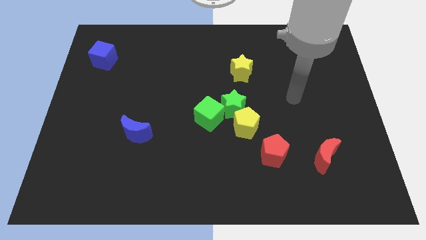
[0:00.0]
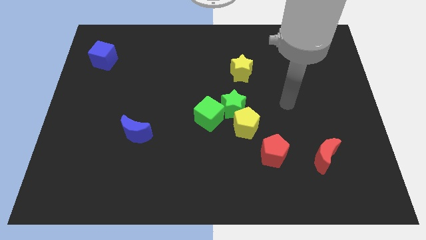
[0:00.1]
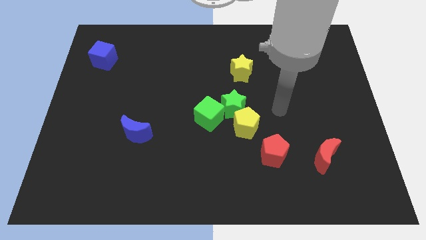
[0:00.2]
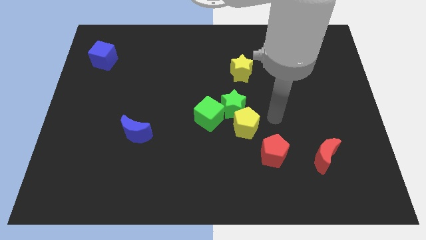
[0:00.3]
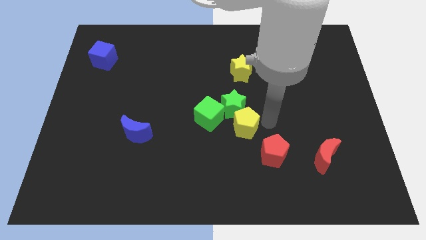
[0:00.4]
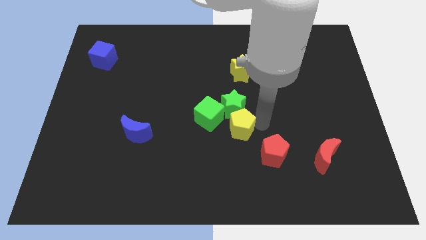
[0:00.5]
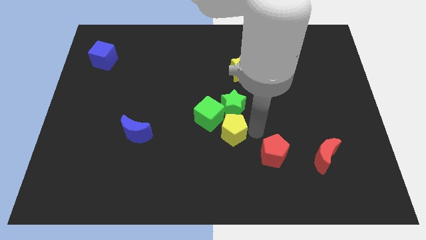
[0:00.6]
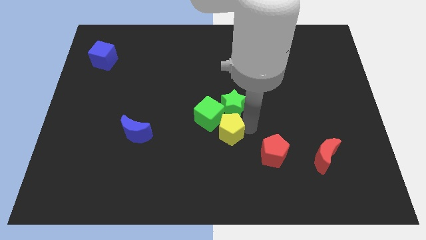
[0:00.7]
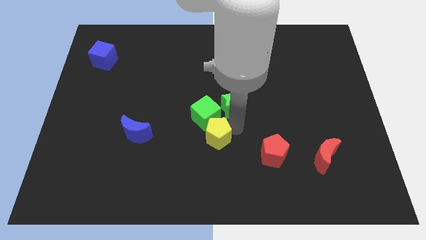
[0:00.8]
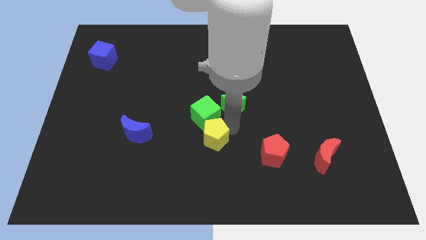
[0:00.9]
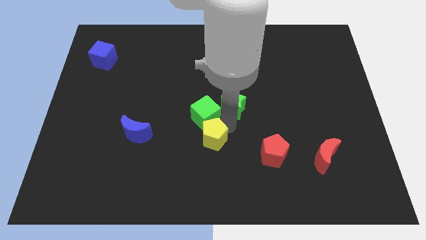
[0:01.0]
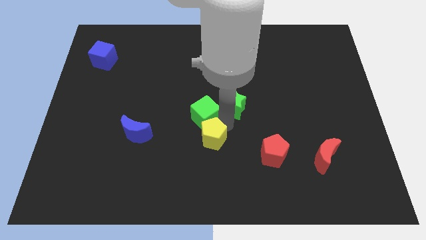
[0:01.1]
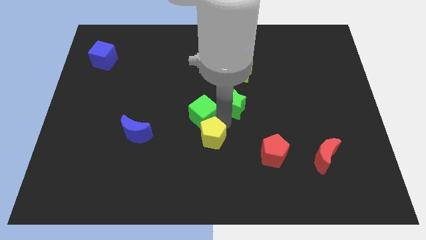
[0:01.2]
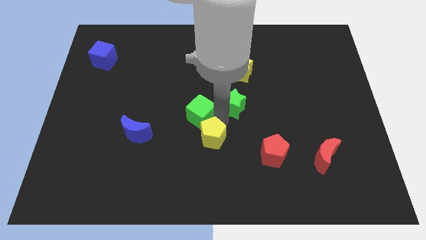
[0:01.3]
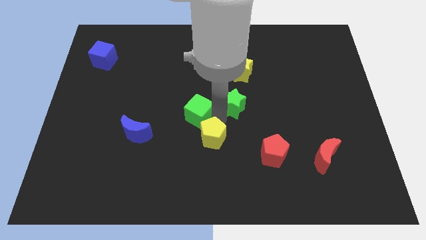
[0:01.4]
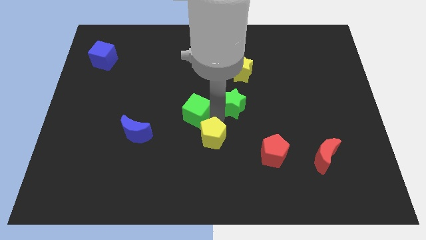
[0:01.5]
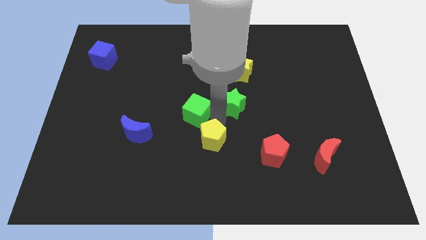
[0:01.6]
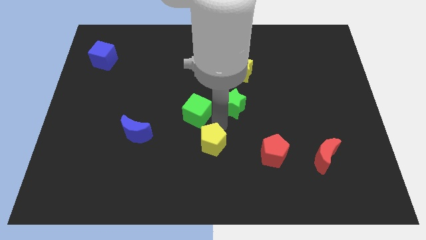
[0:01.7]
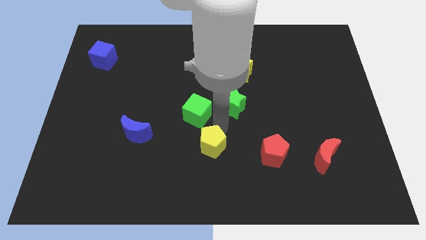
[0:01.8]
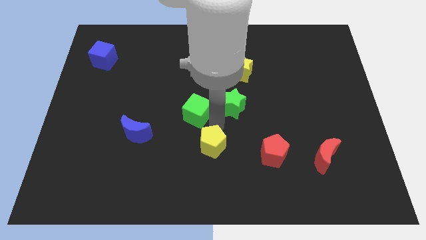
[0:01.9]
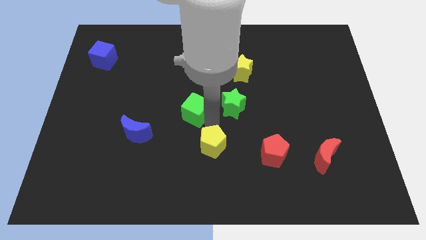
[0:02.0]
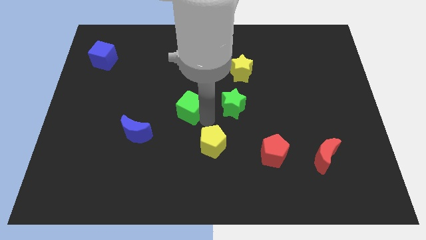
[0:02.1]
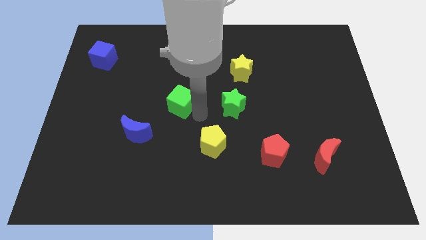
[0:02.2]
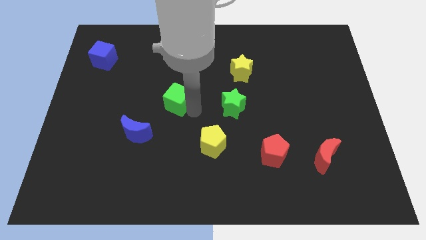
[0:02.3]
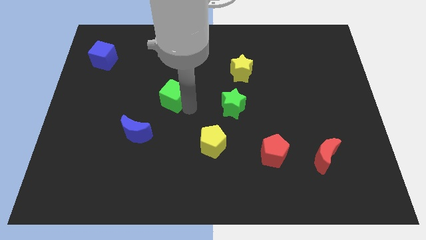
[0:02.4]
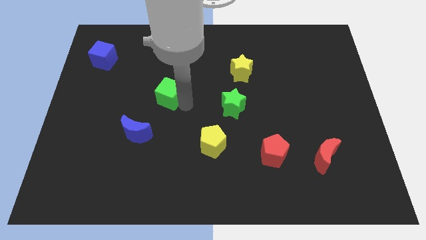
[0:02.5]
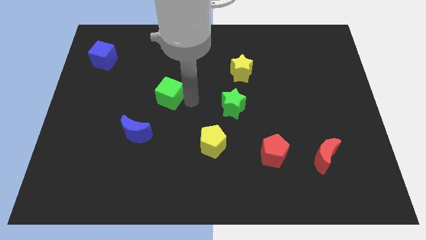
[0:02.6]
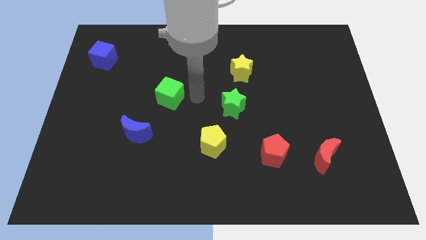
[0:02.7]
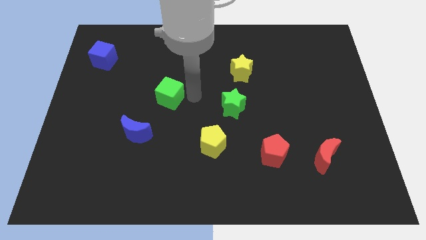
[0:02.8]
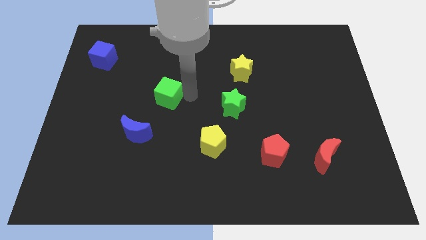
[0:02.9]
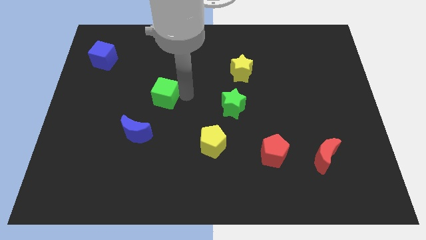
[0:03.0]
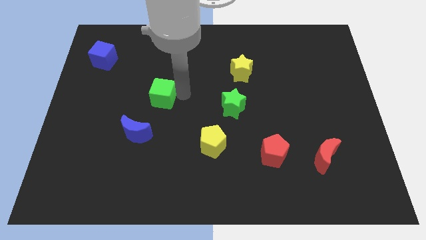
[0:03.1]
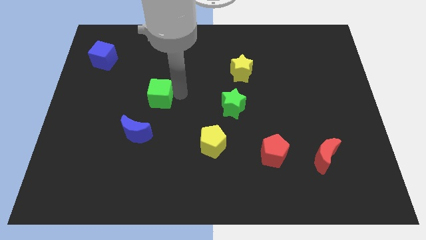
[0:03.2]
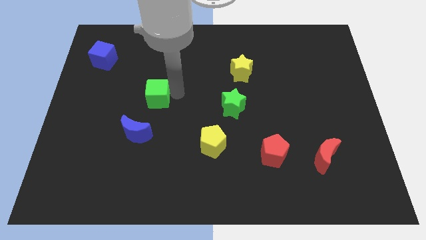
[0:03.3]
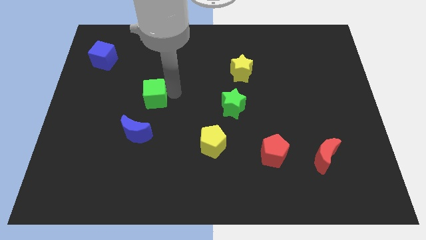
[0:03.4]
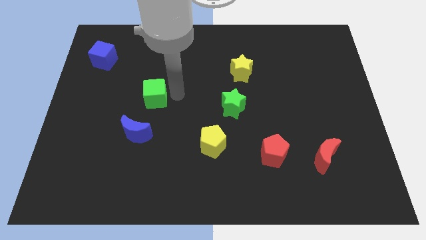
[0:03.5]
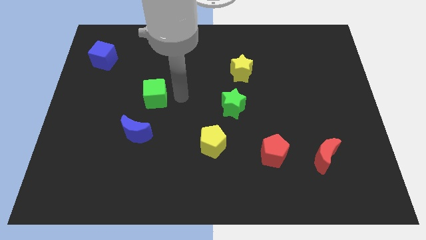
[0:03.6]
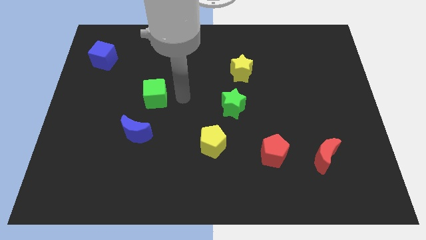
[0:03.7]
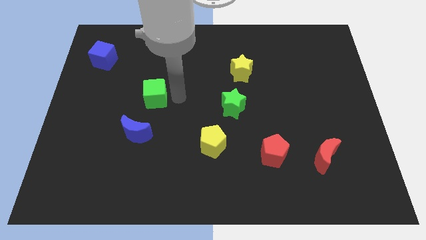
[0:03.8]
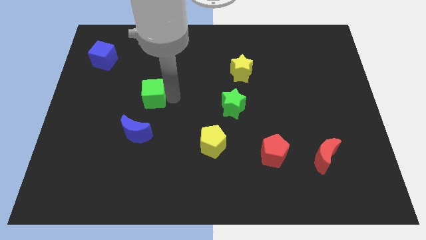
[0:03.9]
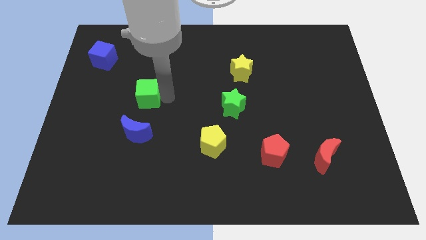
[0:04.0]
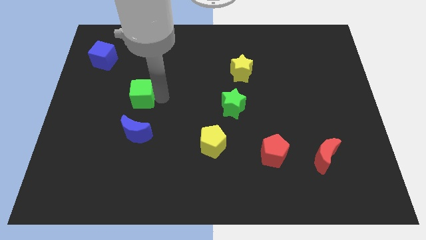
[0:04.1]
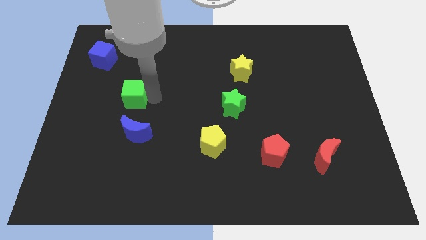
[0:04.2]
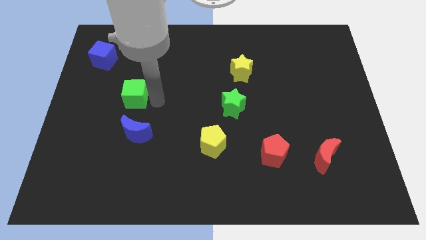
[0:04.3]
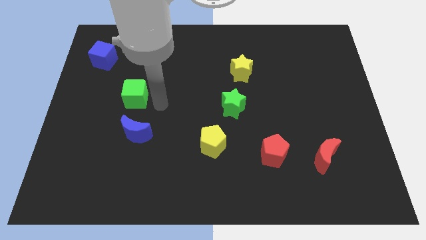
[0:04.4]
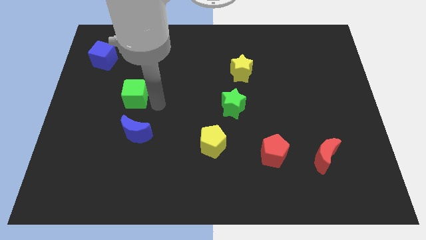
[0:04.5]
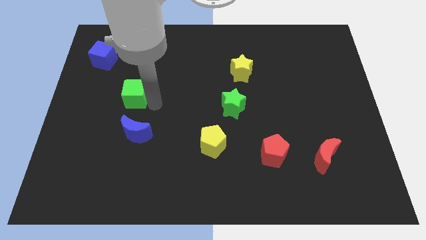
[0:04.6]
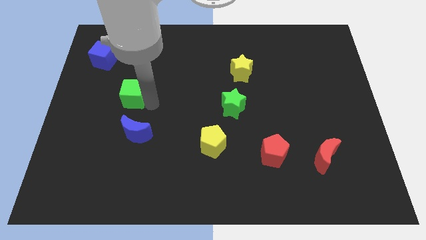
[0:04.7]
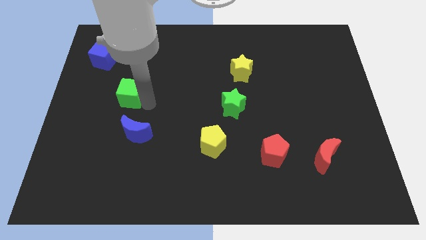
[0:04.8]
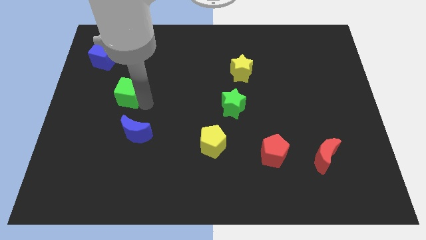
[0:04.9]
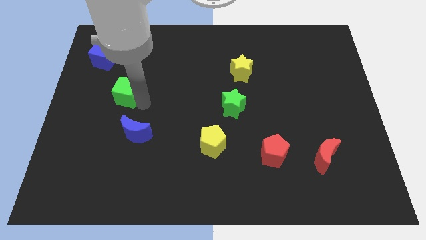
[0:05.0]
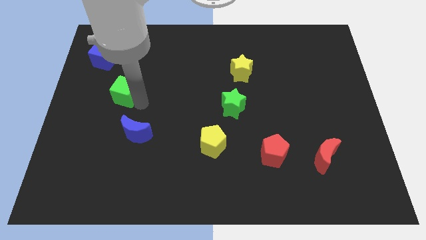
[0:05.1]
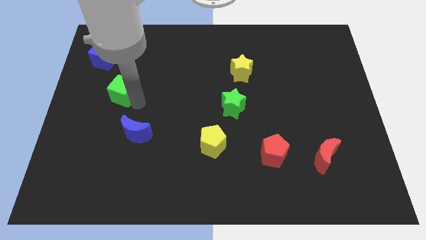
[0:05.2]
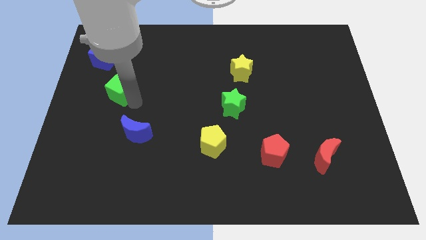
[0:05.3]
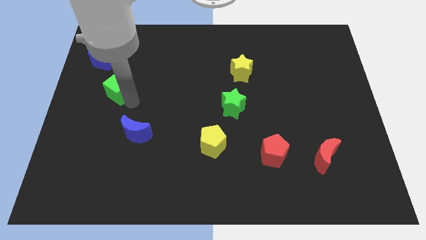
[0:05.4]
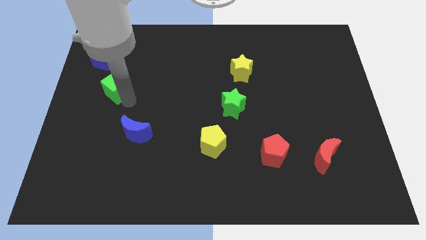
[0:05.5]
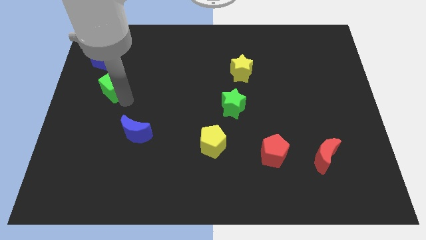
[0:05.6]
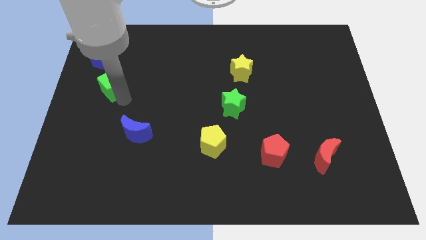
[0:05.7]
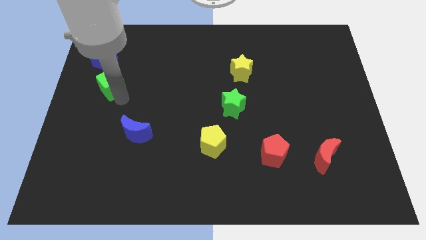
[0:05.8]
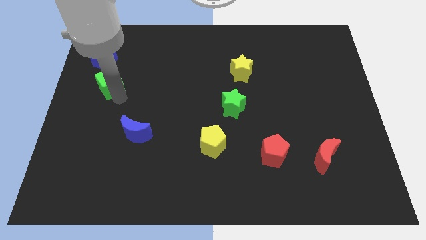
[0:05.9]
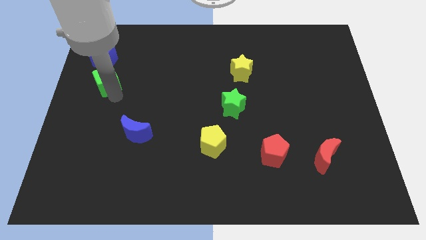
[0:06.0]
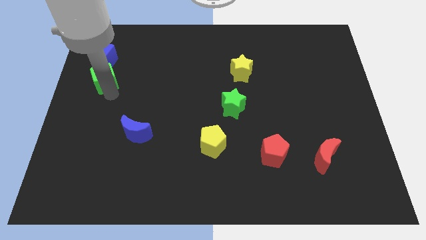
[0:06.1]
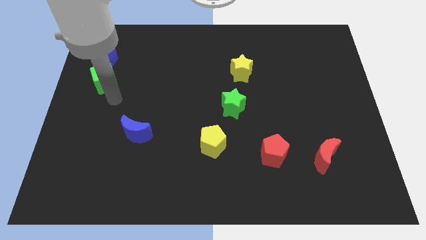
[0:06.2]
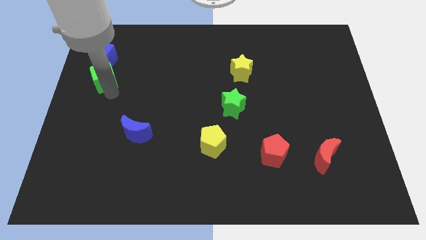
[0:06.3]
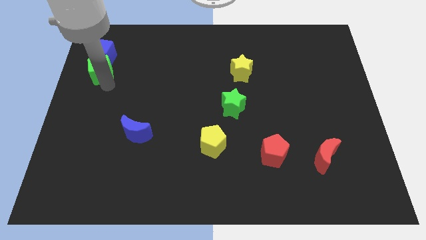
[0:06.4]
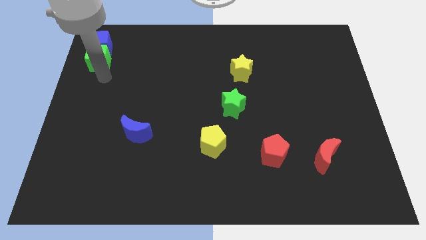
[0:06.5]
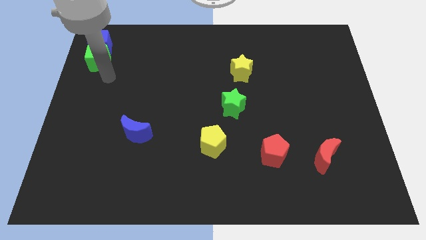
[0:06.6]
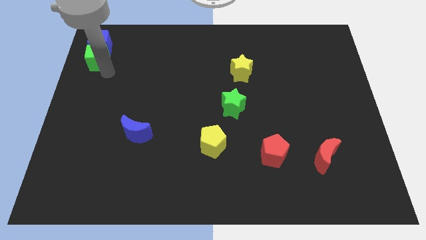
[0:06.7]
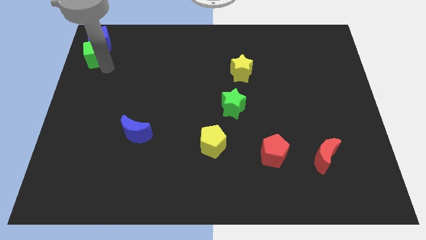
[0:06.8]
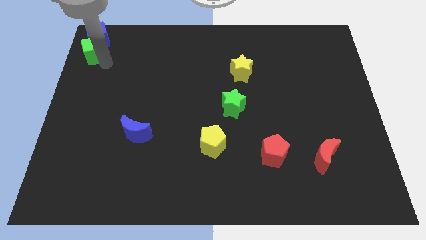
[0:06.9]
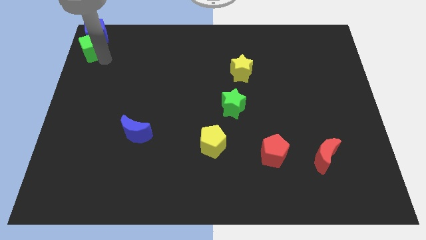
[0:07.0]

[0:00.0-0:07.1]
put the green cube to the top left corner
